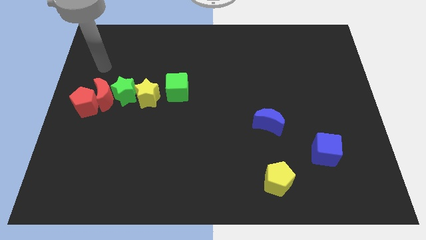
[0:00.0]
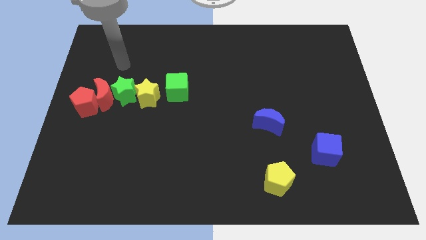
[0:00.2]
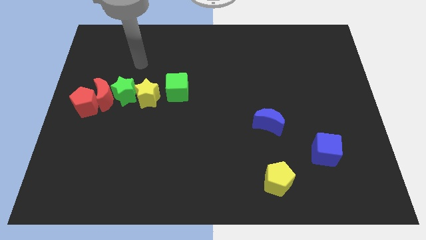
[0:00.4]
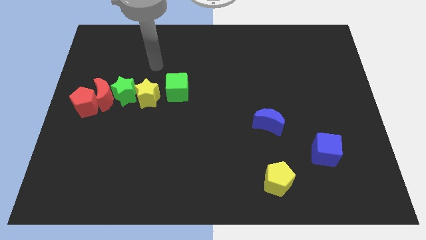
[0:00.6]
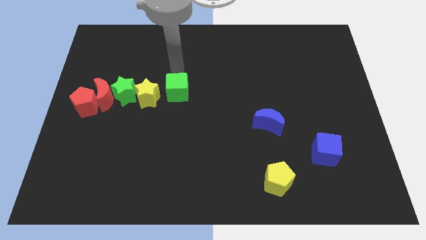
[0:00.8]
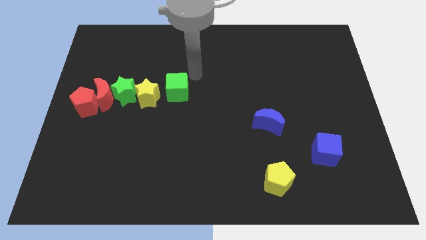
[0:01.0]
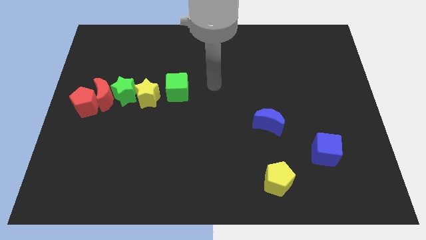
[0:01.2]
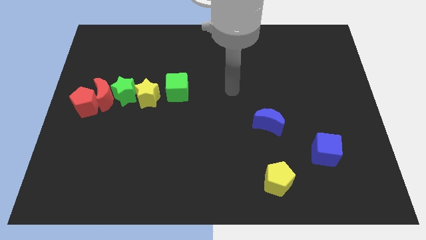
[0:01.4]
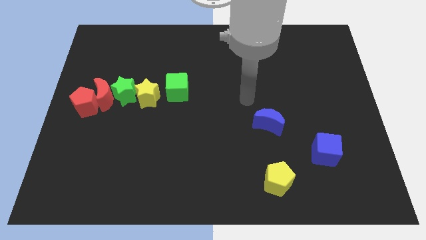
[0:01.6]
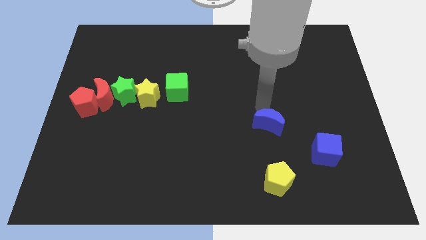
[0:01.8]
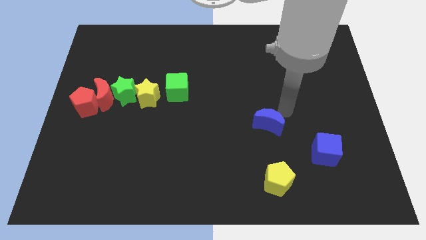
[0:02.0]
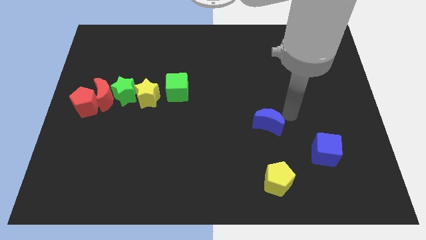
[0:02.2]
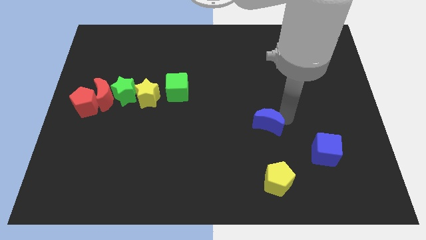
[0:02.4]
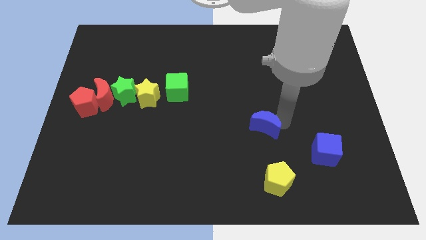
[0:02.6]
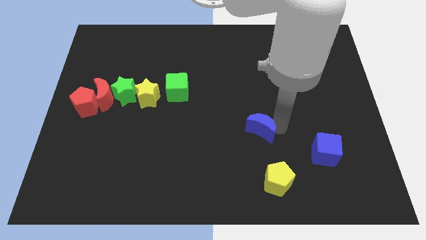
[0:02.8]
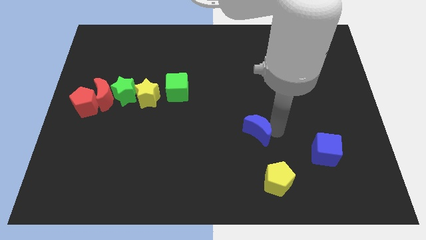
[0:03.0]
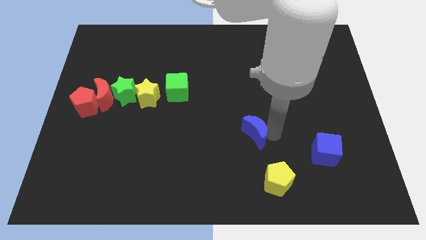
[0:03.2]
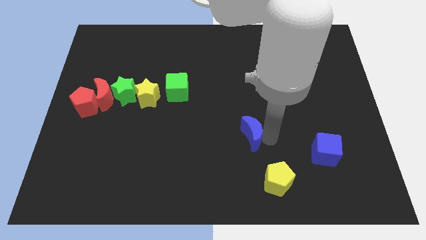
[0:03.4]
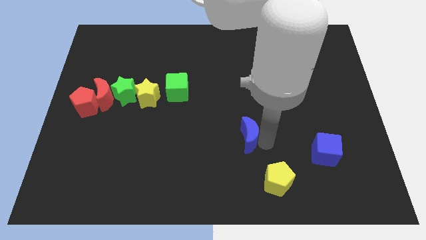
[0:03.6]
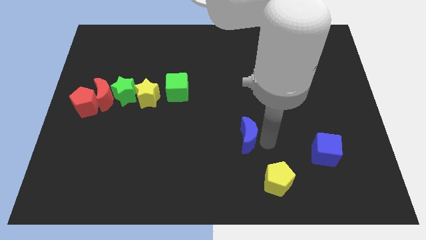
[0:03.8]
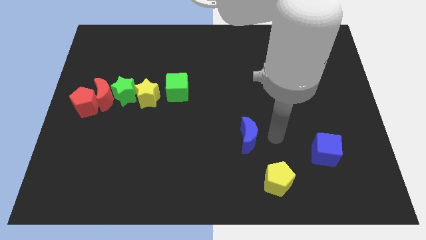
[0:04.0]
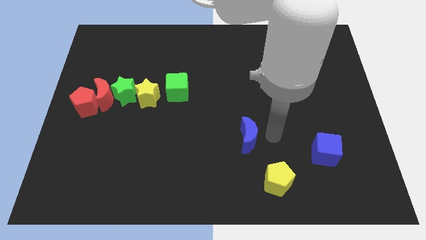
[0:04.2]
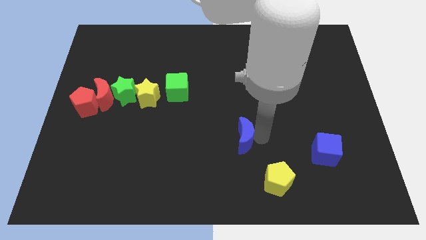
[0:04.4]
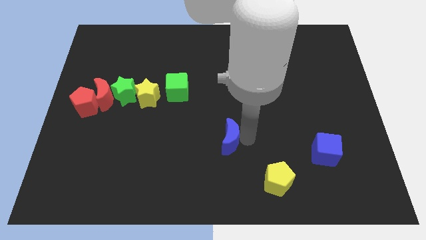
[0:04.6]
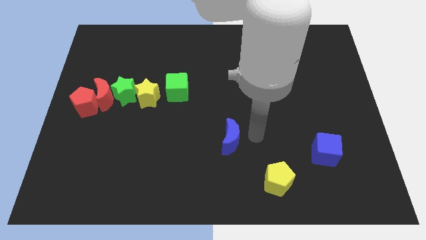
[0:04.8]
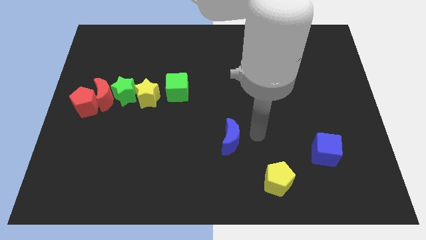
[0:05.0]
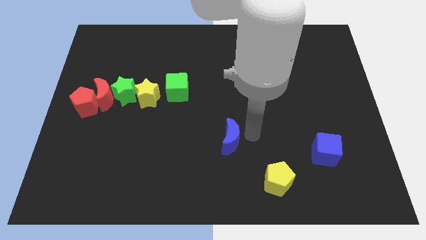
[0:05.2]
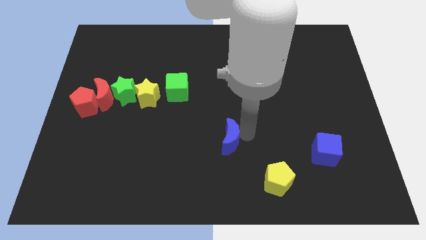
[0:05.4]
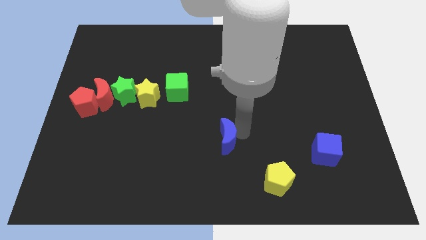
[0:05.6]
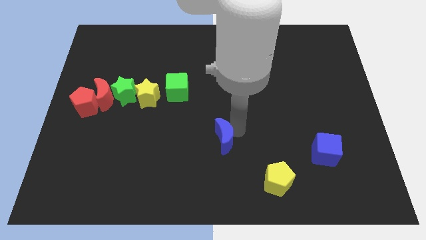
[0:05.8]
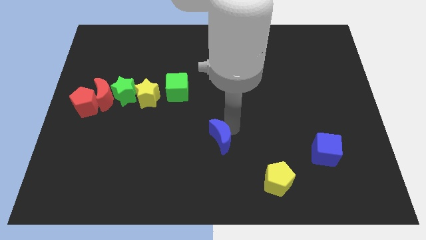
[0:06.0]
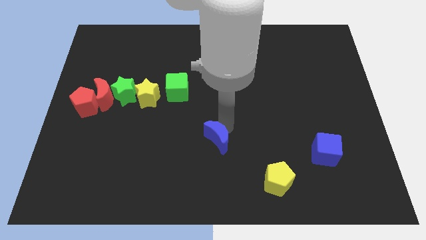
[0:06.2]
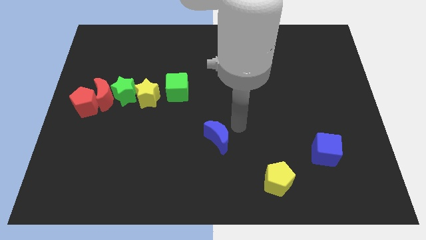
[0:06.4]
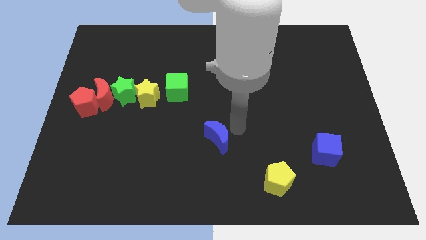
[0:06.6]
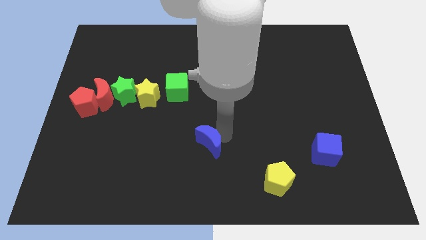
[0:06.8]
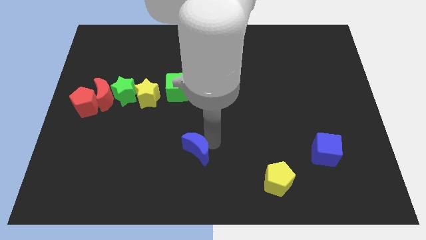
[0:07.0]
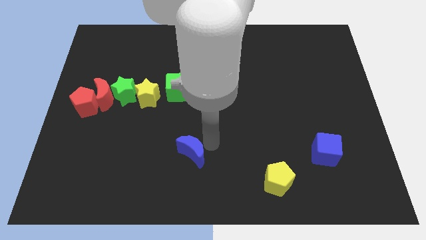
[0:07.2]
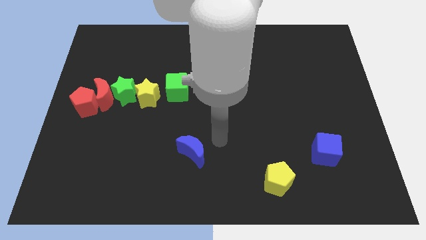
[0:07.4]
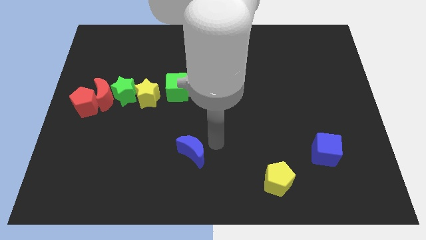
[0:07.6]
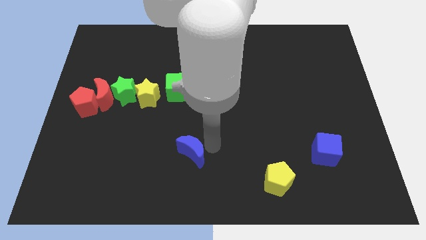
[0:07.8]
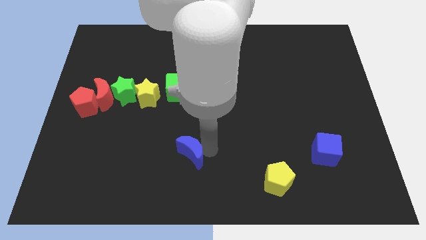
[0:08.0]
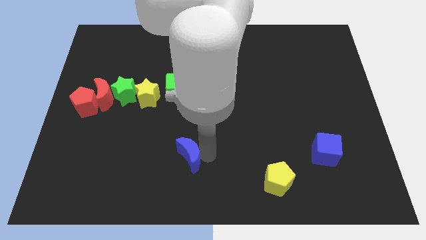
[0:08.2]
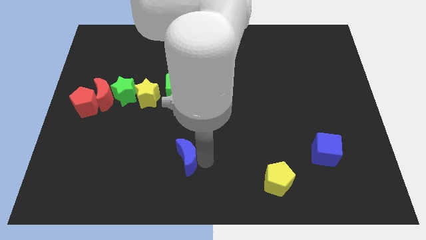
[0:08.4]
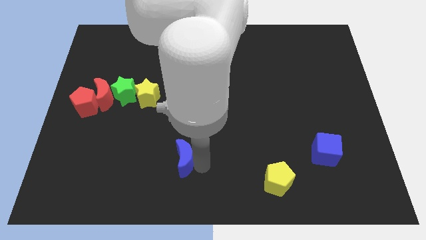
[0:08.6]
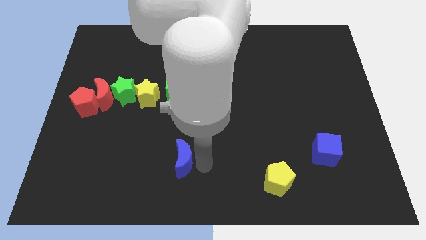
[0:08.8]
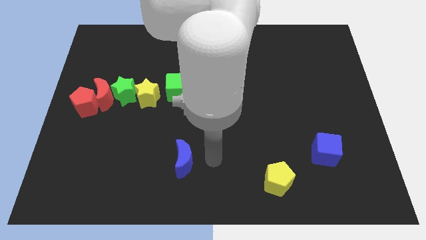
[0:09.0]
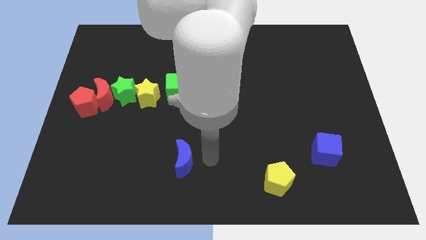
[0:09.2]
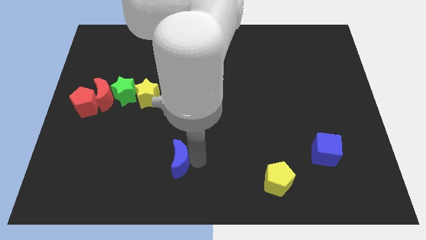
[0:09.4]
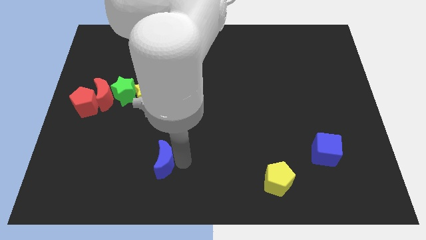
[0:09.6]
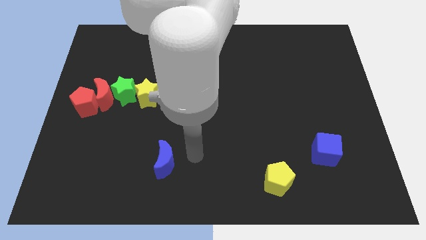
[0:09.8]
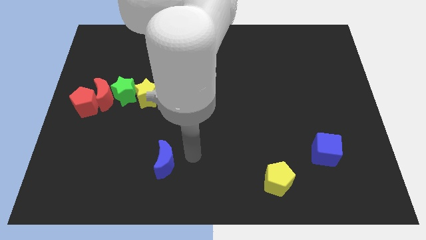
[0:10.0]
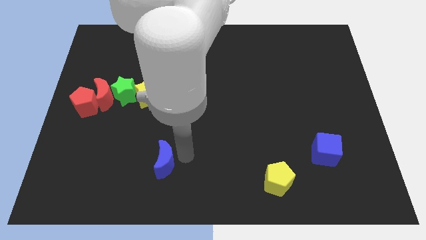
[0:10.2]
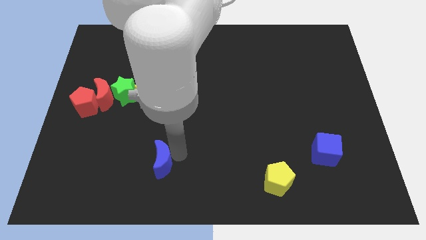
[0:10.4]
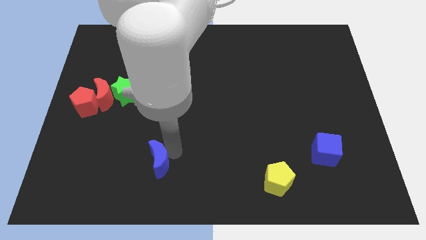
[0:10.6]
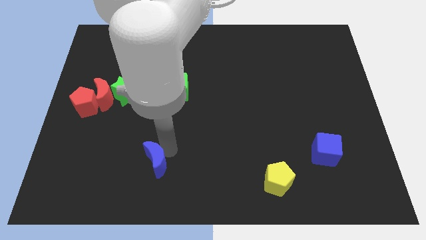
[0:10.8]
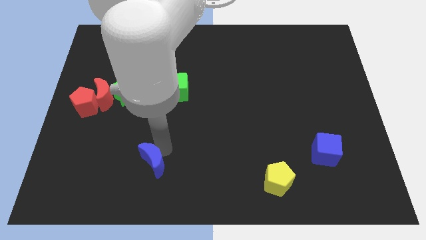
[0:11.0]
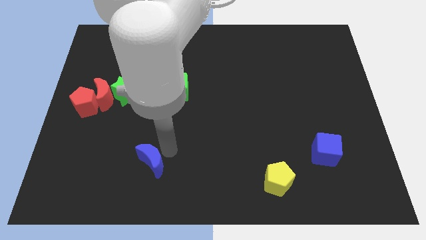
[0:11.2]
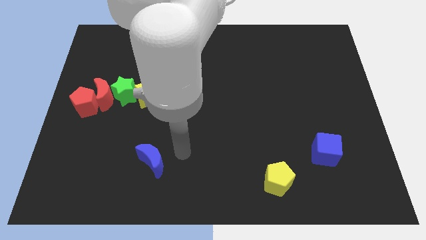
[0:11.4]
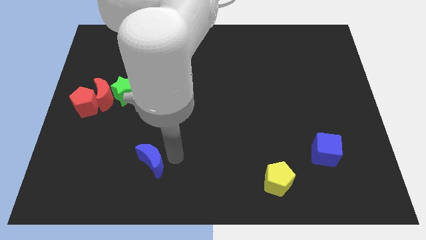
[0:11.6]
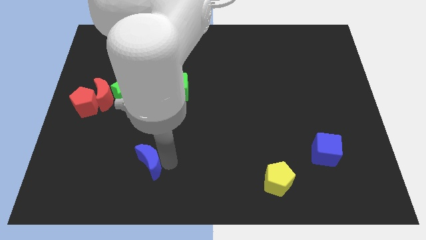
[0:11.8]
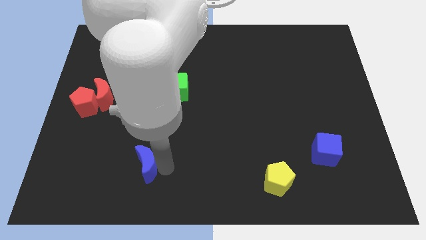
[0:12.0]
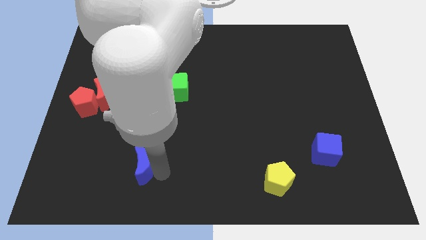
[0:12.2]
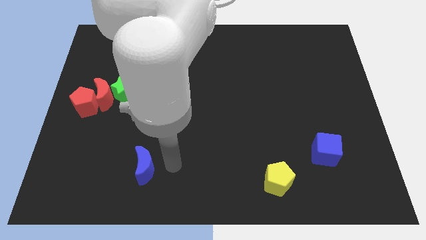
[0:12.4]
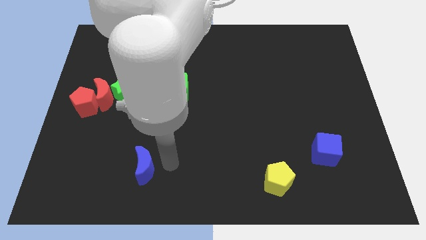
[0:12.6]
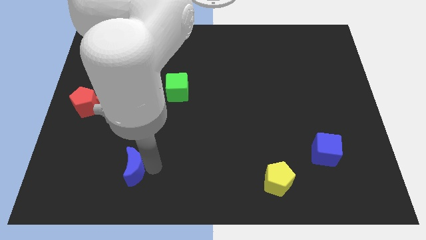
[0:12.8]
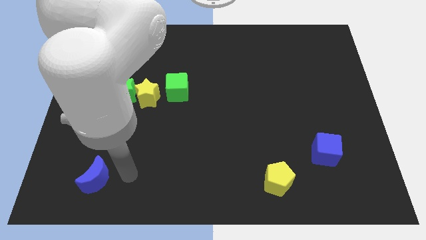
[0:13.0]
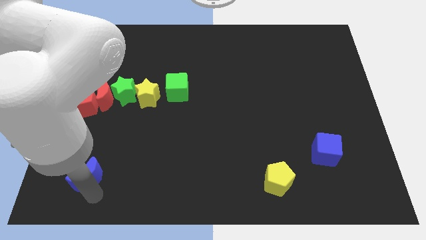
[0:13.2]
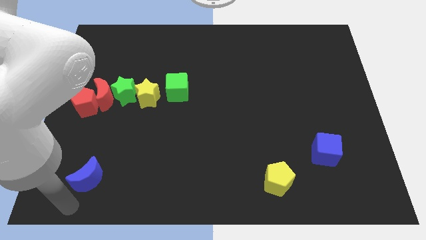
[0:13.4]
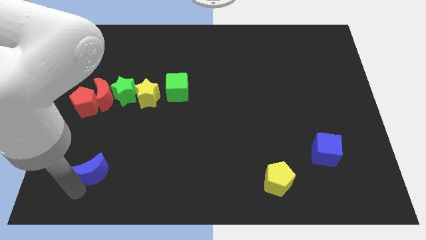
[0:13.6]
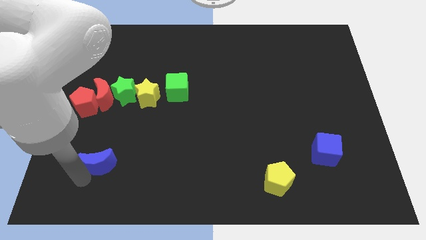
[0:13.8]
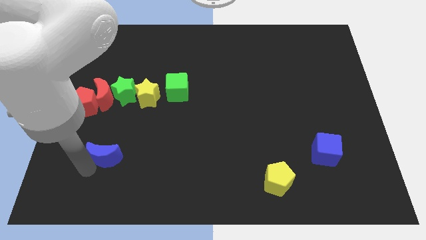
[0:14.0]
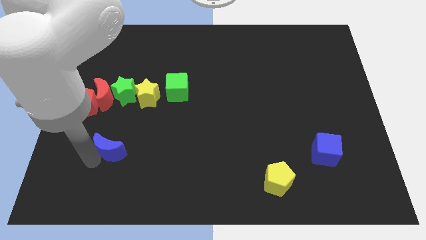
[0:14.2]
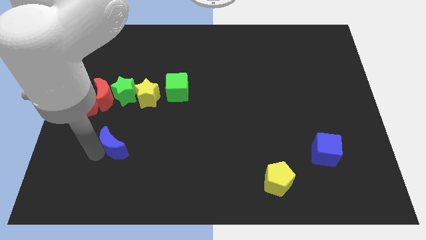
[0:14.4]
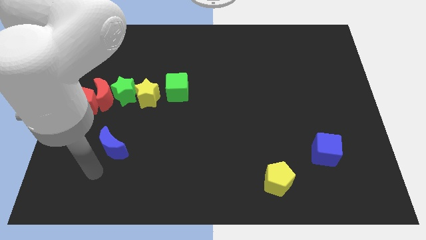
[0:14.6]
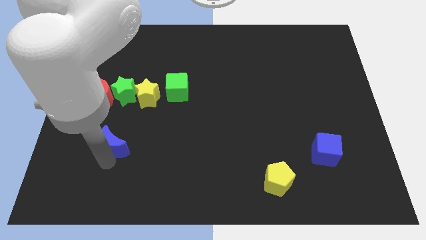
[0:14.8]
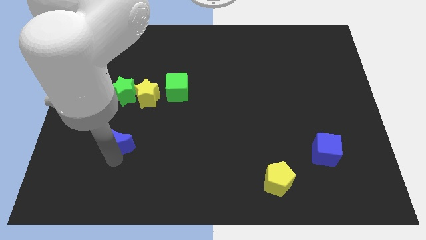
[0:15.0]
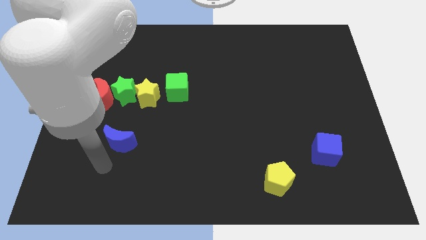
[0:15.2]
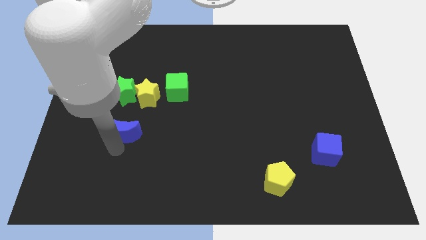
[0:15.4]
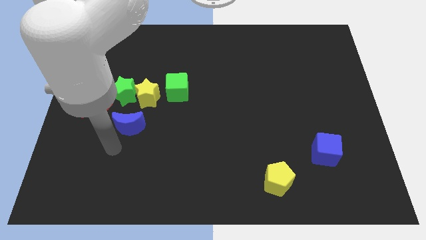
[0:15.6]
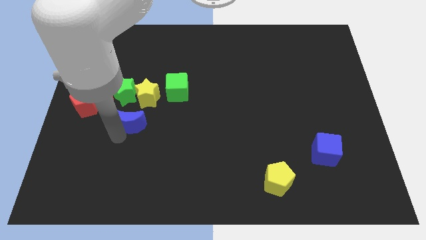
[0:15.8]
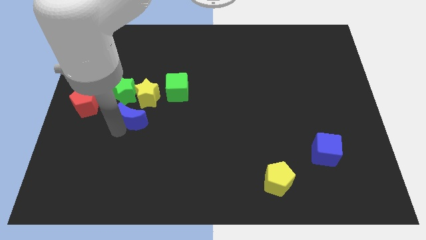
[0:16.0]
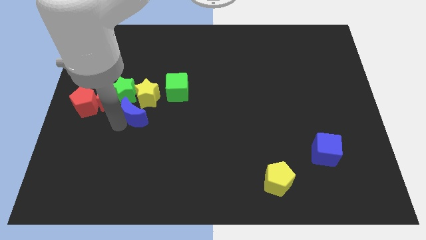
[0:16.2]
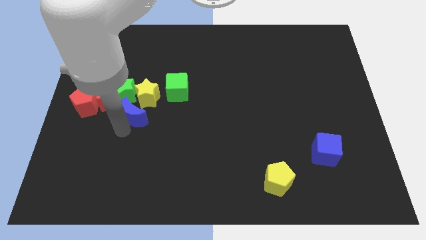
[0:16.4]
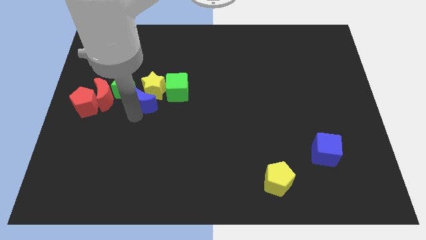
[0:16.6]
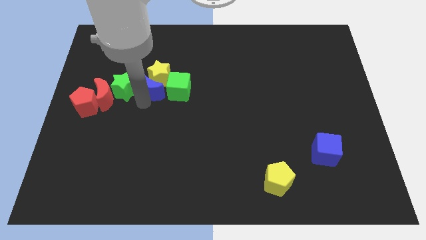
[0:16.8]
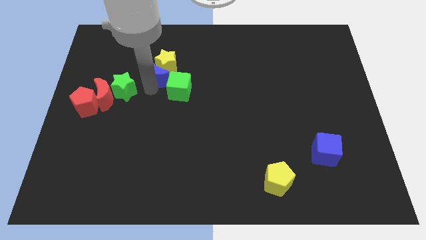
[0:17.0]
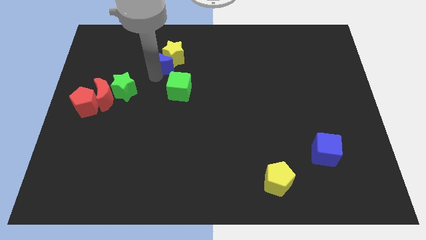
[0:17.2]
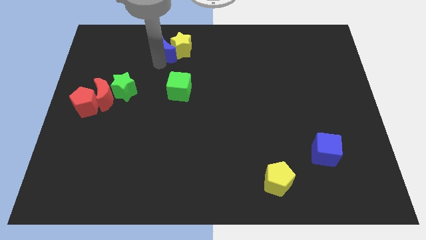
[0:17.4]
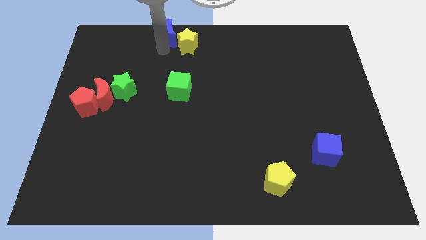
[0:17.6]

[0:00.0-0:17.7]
put the blue moon to the top
